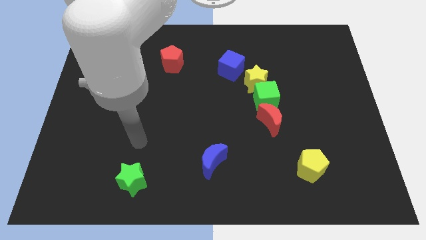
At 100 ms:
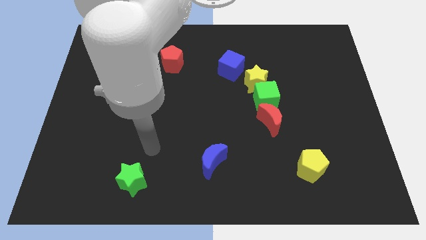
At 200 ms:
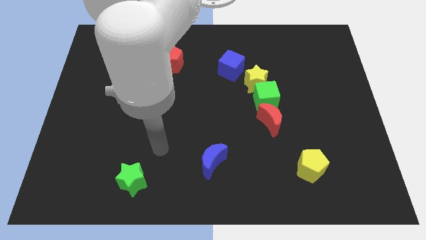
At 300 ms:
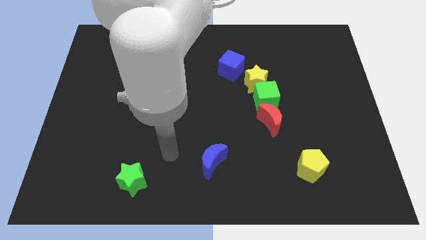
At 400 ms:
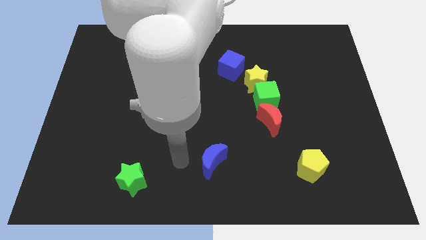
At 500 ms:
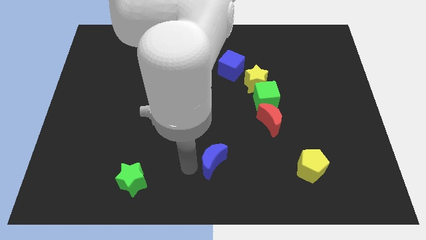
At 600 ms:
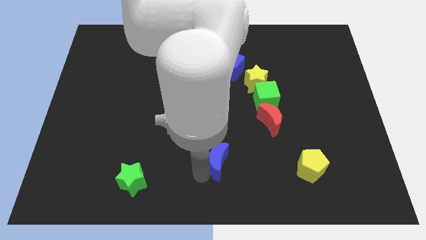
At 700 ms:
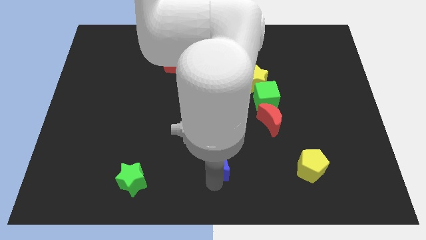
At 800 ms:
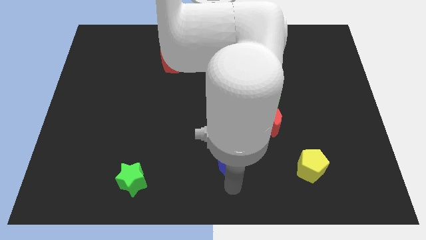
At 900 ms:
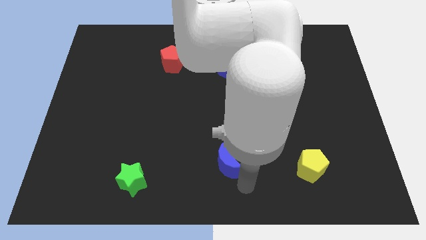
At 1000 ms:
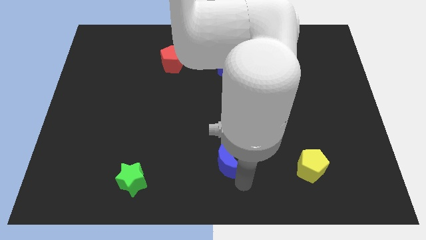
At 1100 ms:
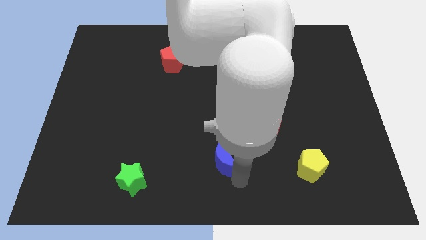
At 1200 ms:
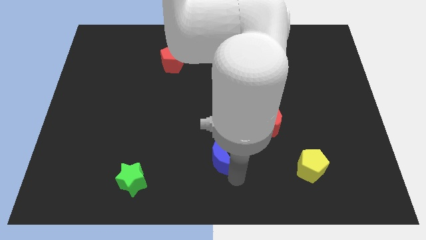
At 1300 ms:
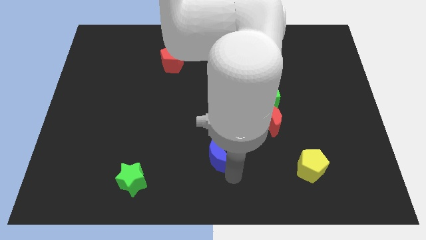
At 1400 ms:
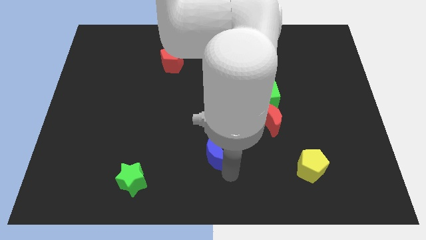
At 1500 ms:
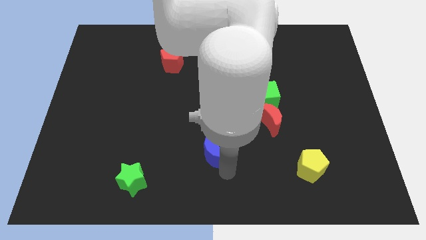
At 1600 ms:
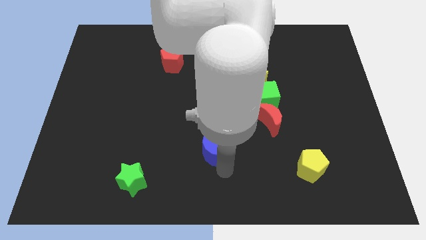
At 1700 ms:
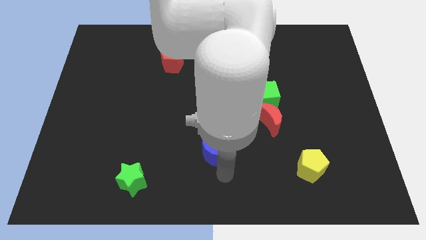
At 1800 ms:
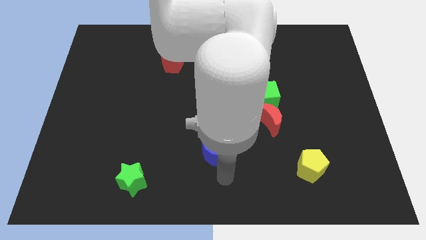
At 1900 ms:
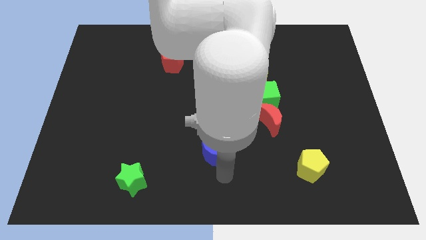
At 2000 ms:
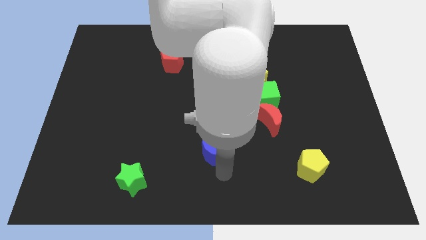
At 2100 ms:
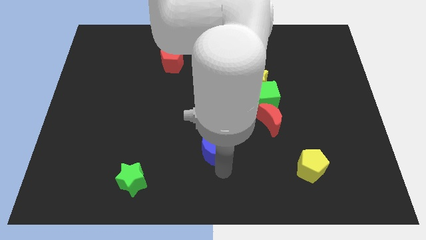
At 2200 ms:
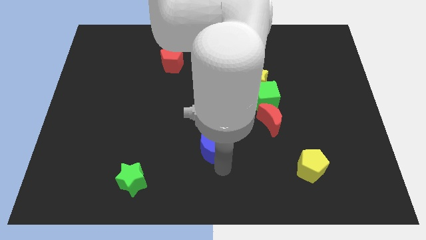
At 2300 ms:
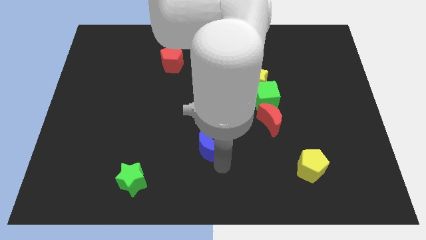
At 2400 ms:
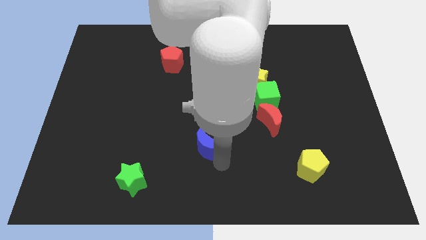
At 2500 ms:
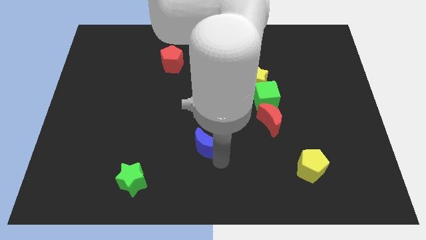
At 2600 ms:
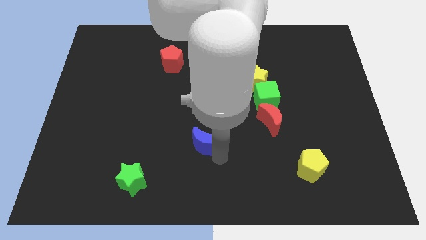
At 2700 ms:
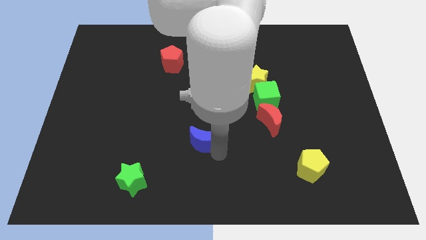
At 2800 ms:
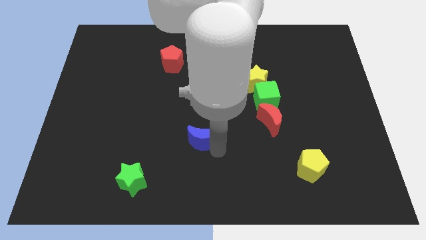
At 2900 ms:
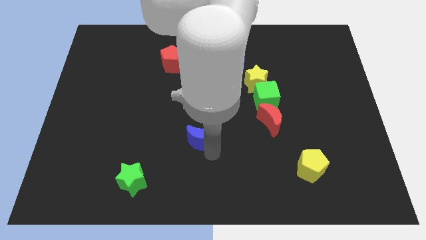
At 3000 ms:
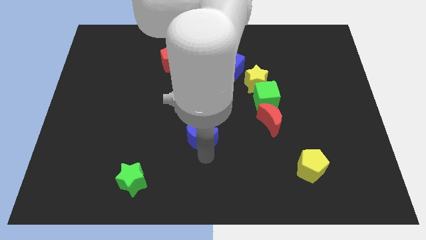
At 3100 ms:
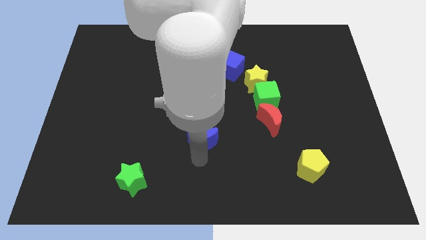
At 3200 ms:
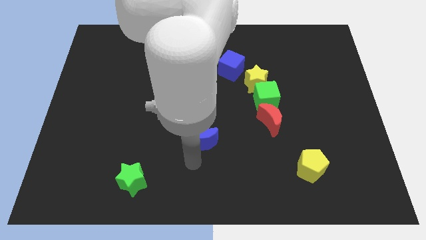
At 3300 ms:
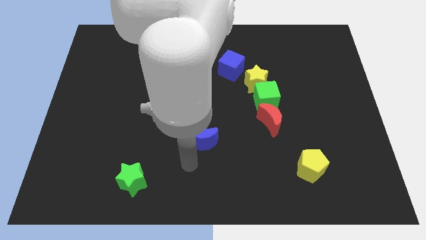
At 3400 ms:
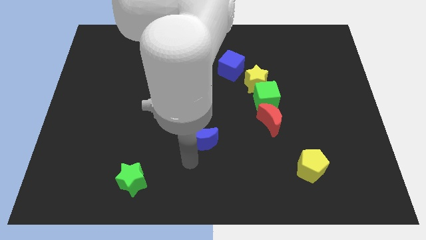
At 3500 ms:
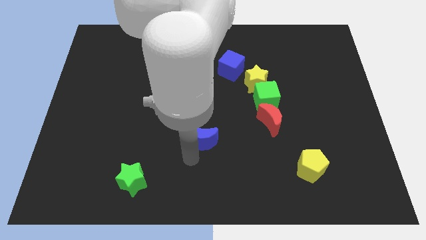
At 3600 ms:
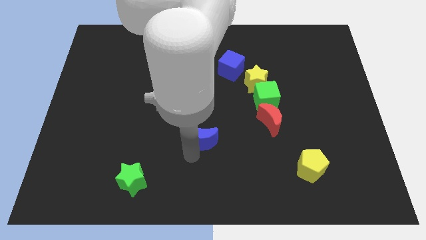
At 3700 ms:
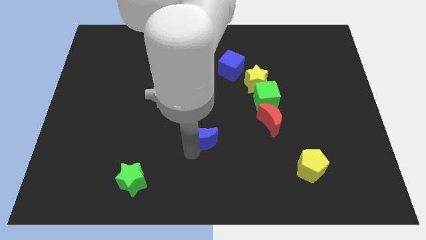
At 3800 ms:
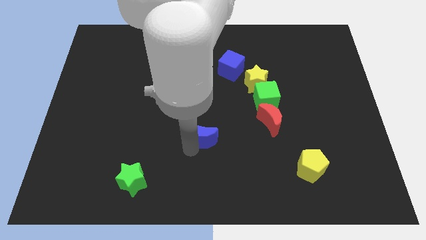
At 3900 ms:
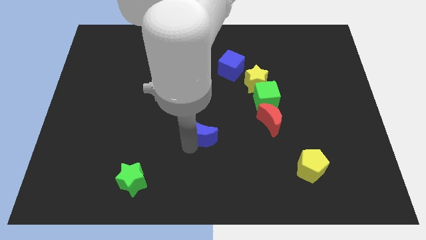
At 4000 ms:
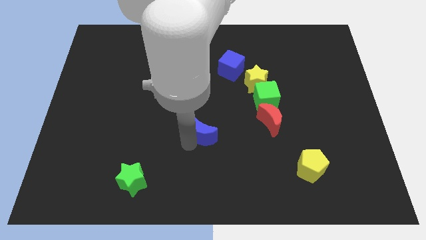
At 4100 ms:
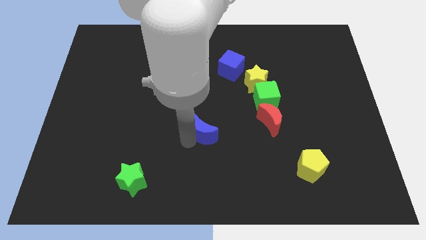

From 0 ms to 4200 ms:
slightly push the blue moon up

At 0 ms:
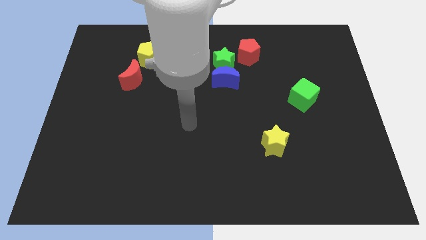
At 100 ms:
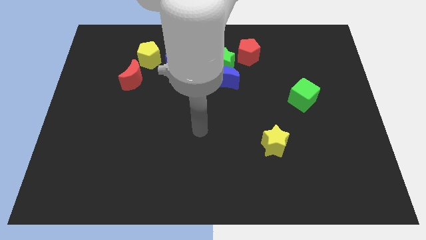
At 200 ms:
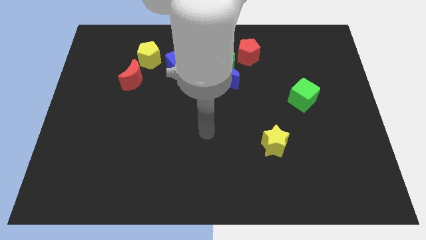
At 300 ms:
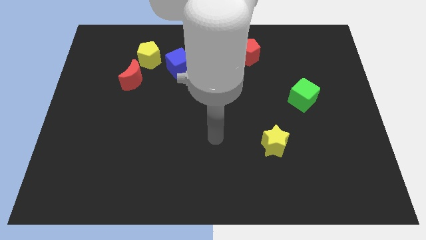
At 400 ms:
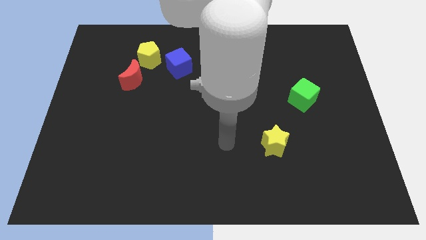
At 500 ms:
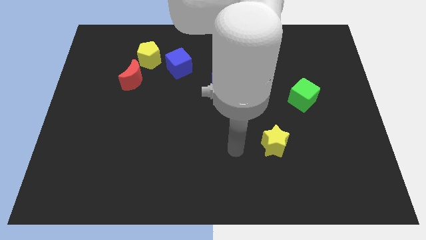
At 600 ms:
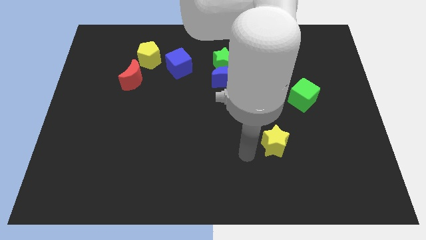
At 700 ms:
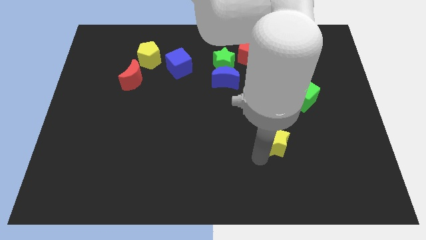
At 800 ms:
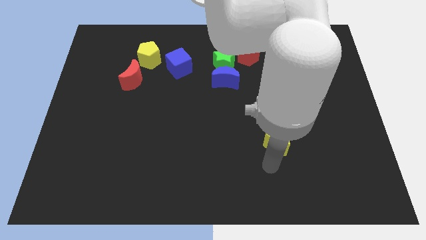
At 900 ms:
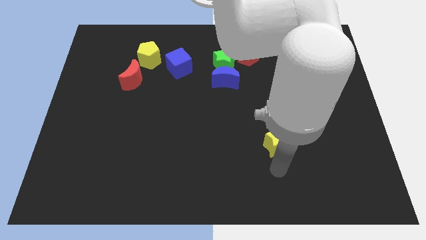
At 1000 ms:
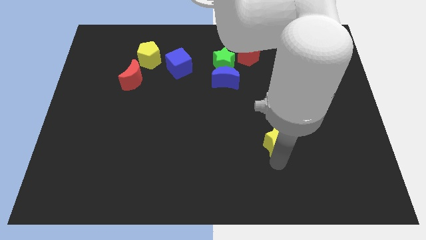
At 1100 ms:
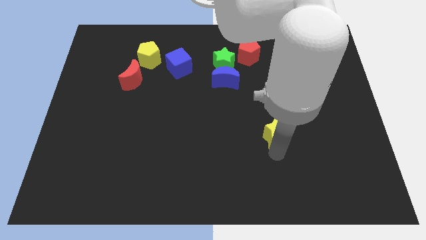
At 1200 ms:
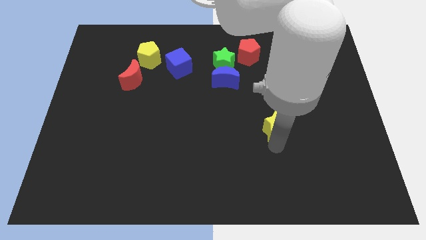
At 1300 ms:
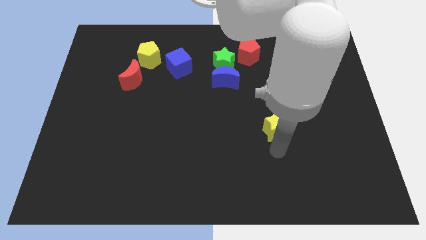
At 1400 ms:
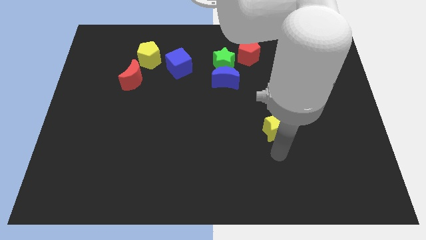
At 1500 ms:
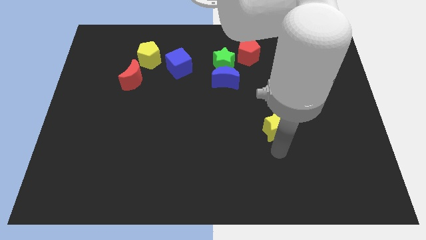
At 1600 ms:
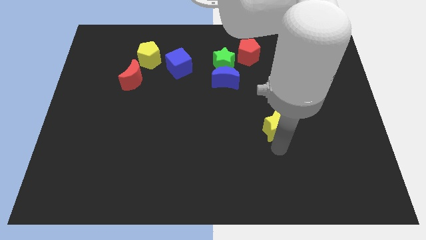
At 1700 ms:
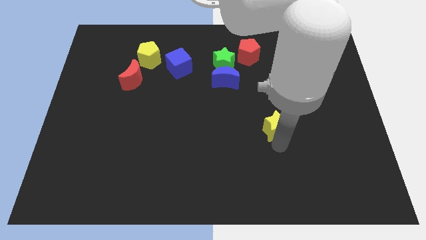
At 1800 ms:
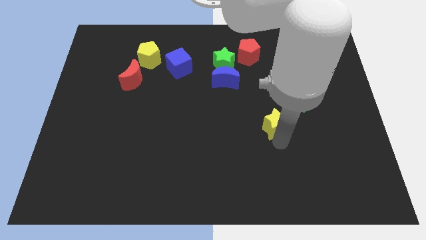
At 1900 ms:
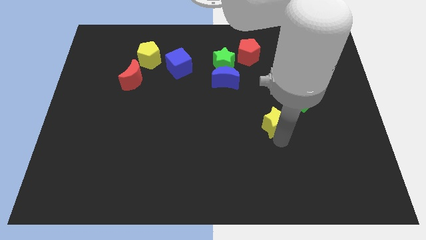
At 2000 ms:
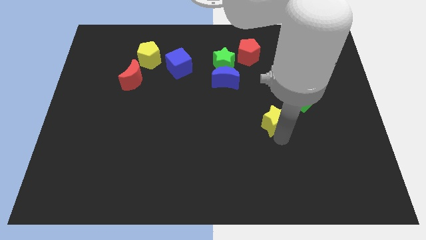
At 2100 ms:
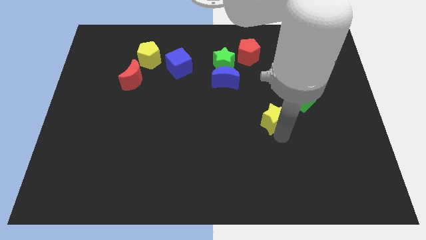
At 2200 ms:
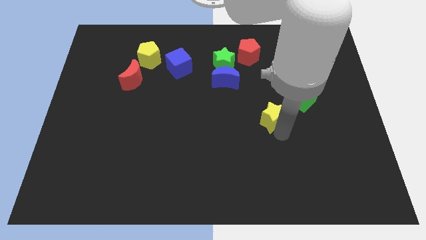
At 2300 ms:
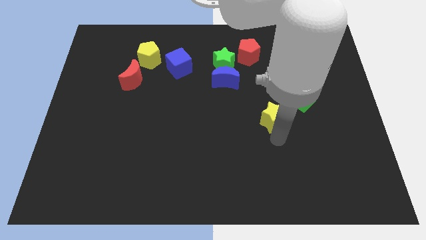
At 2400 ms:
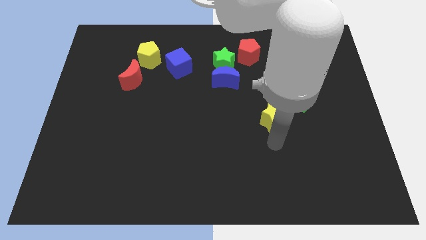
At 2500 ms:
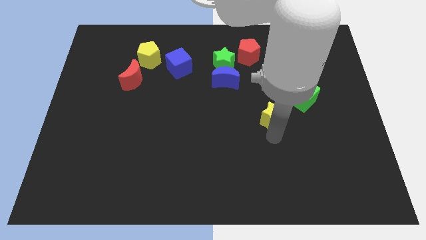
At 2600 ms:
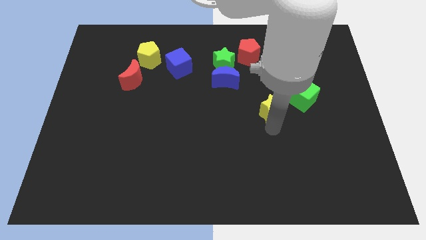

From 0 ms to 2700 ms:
push the yellow star slightly upwards

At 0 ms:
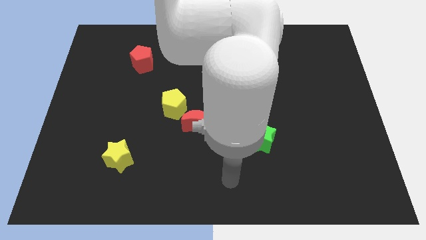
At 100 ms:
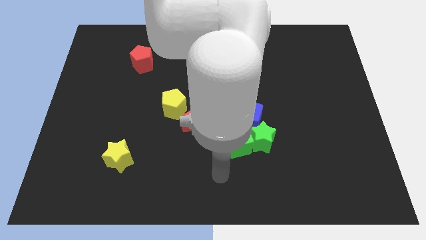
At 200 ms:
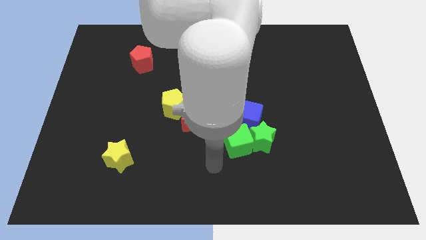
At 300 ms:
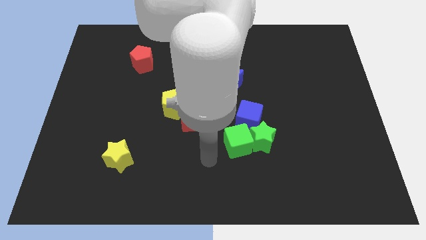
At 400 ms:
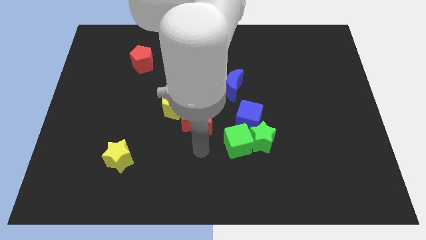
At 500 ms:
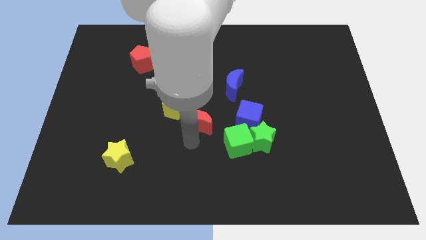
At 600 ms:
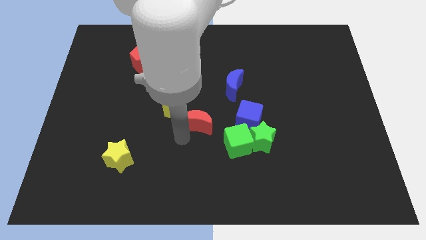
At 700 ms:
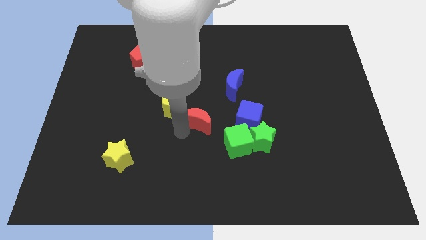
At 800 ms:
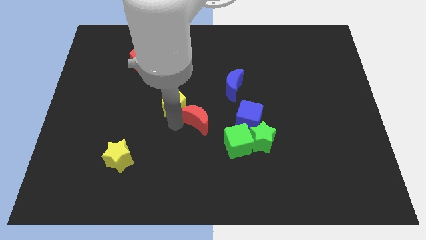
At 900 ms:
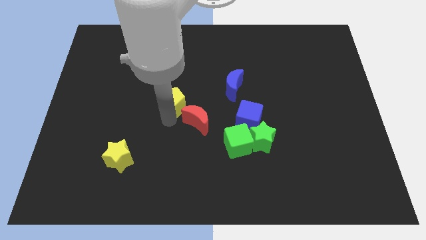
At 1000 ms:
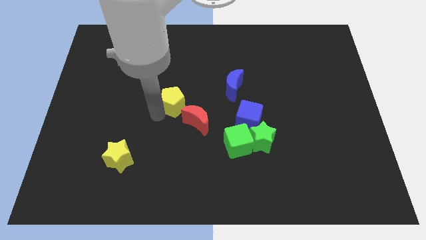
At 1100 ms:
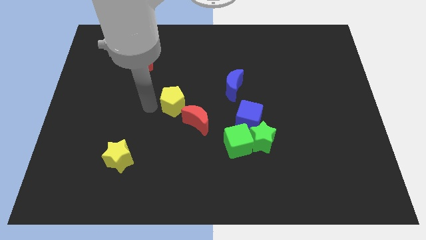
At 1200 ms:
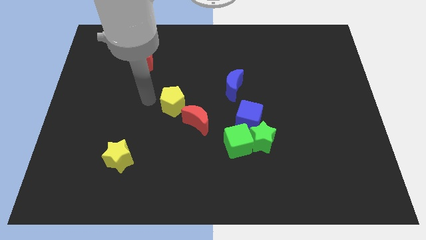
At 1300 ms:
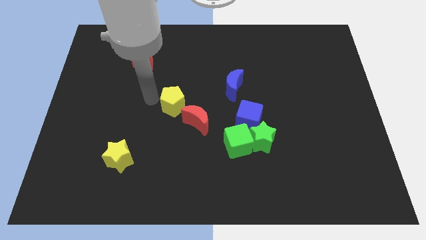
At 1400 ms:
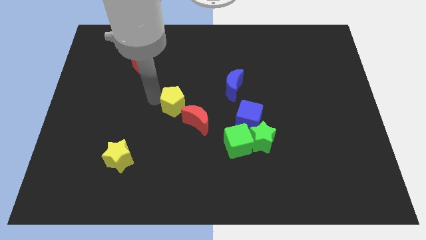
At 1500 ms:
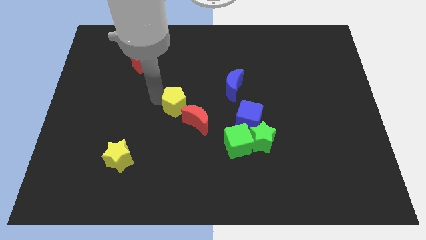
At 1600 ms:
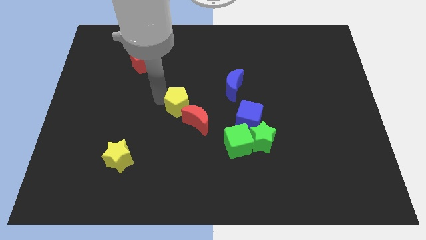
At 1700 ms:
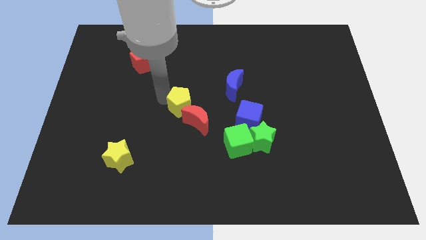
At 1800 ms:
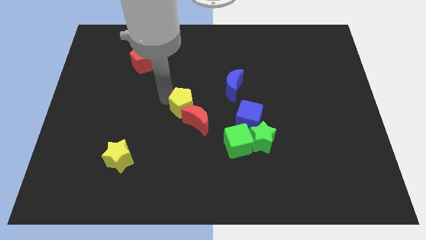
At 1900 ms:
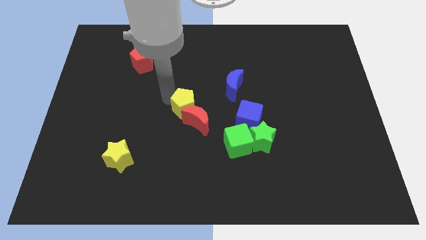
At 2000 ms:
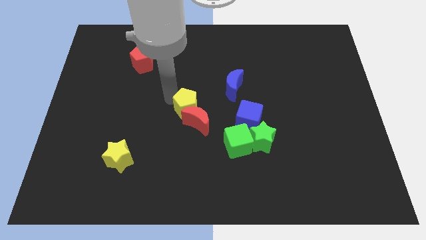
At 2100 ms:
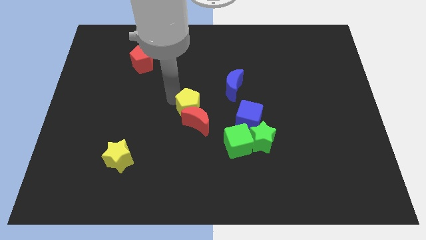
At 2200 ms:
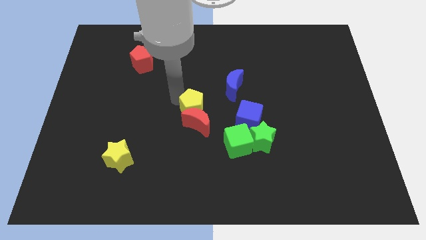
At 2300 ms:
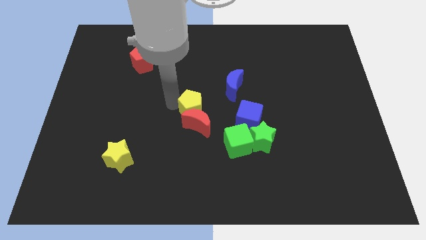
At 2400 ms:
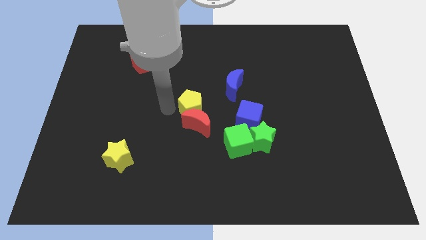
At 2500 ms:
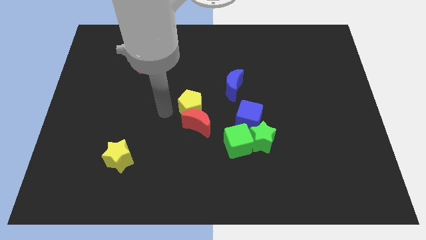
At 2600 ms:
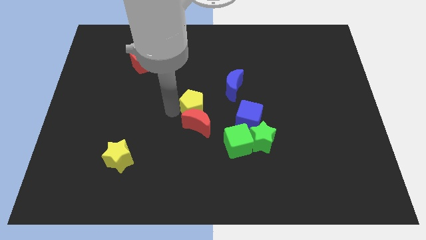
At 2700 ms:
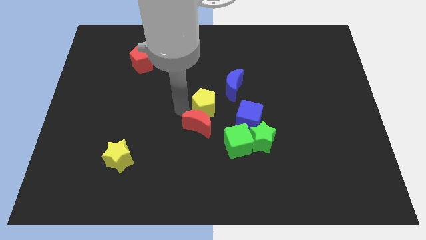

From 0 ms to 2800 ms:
slide the yellow pentagon a little bit right
